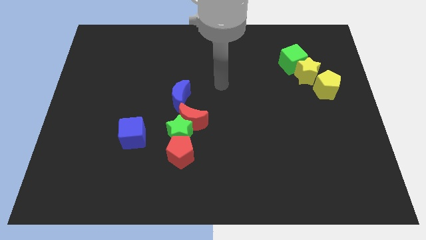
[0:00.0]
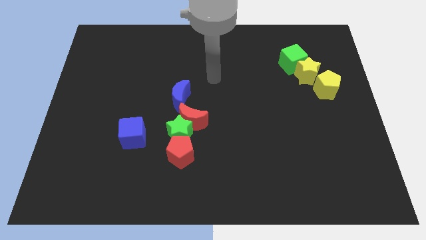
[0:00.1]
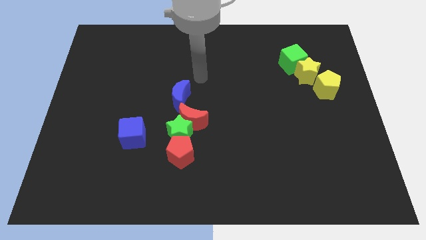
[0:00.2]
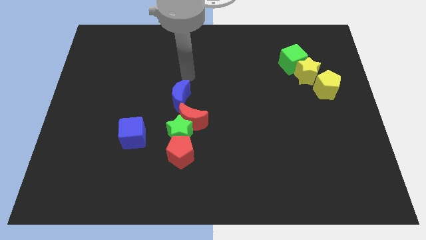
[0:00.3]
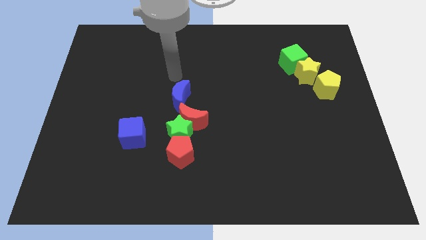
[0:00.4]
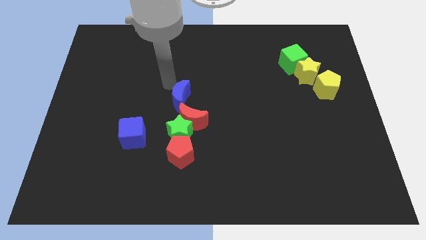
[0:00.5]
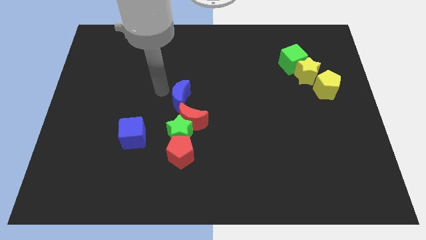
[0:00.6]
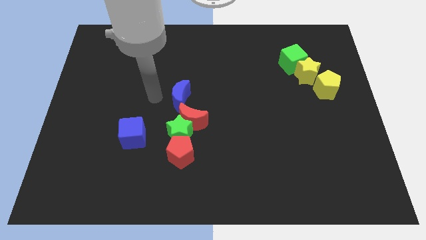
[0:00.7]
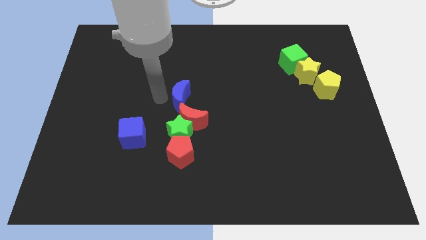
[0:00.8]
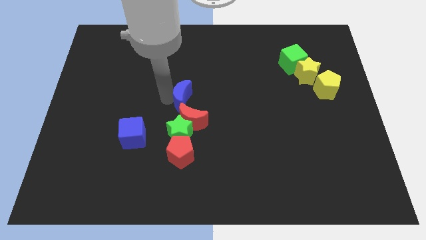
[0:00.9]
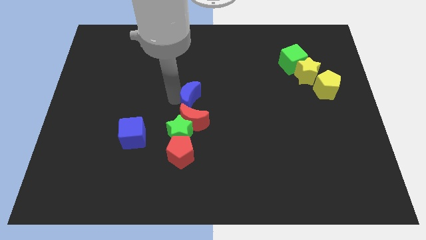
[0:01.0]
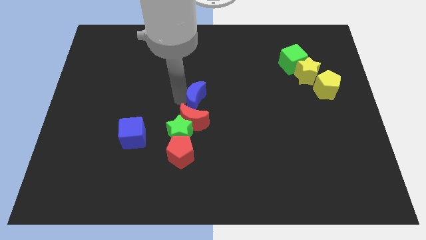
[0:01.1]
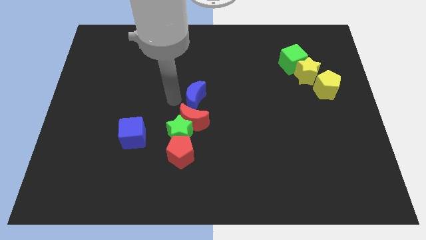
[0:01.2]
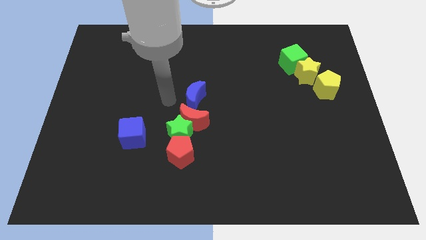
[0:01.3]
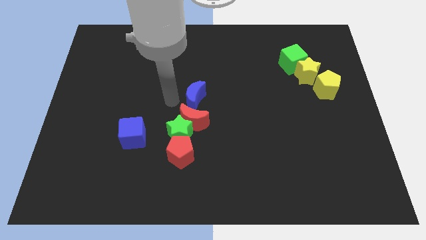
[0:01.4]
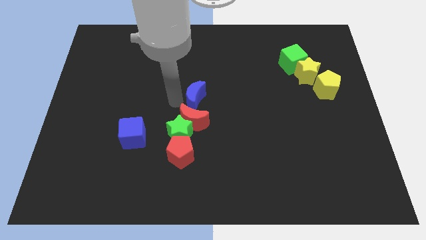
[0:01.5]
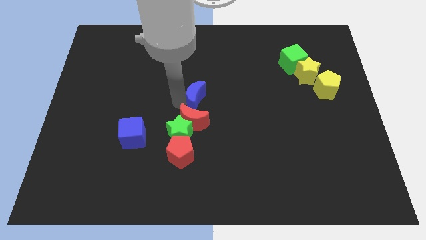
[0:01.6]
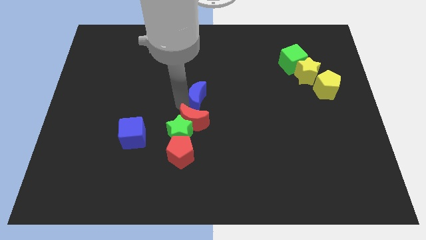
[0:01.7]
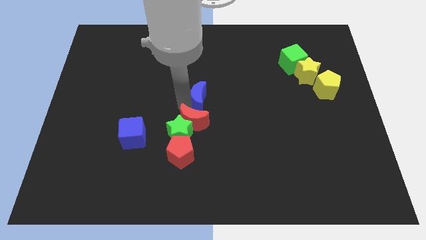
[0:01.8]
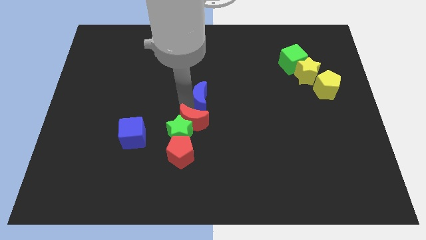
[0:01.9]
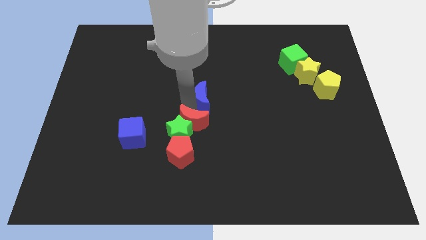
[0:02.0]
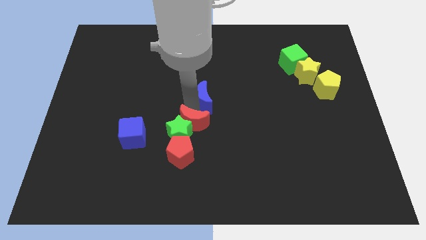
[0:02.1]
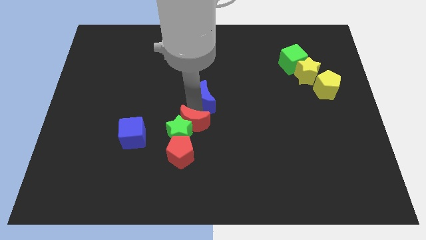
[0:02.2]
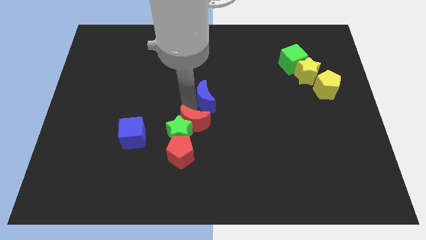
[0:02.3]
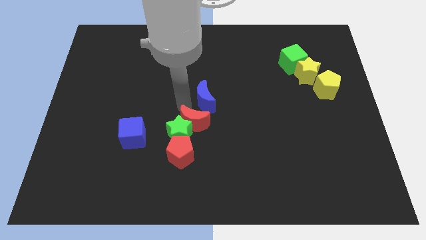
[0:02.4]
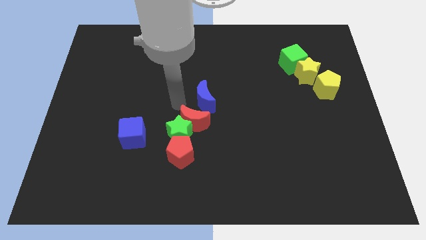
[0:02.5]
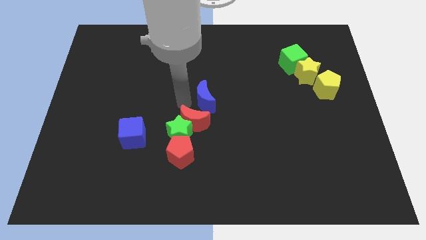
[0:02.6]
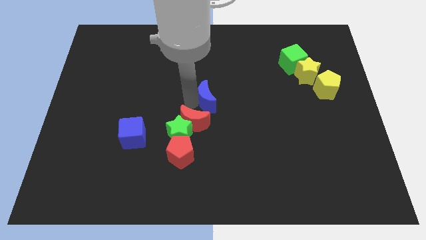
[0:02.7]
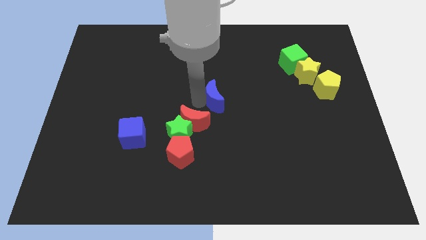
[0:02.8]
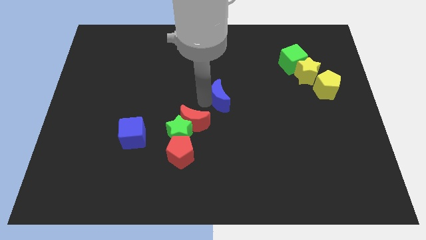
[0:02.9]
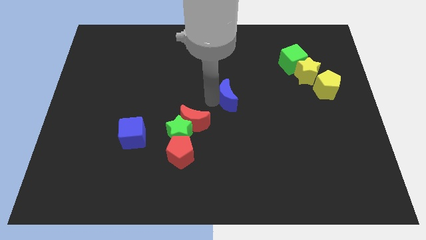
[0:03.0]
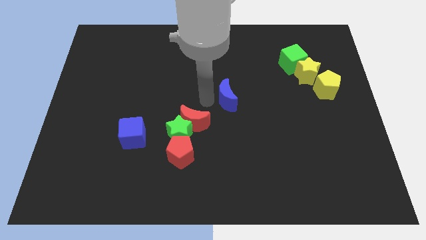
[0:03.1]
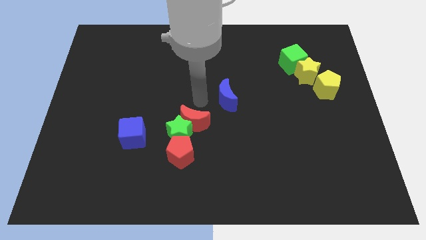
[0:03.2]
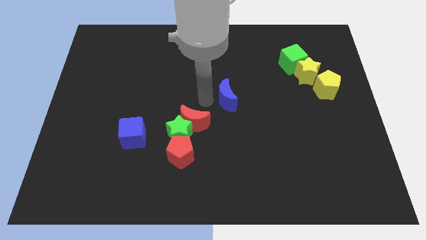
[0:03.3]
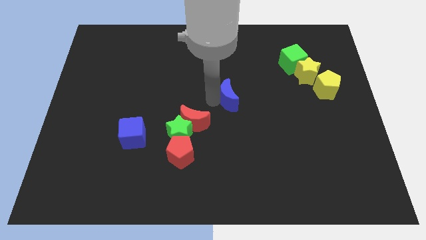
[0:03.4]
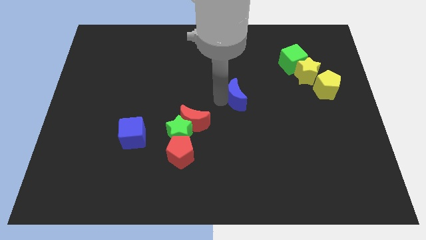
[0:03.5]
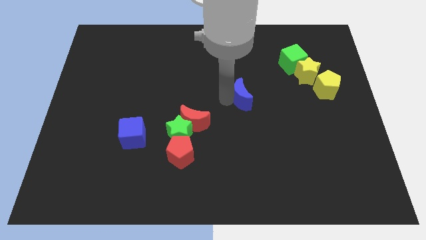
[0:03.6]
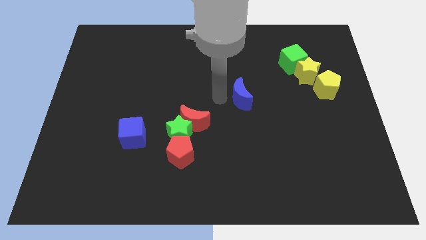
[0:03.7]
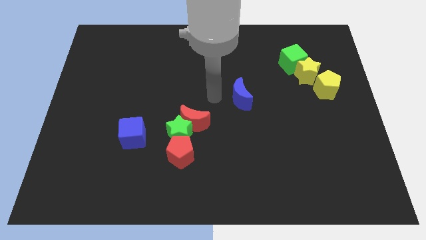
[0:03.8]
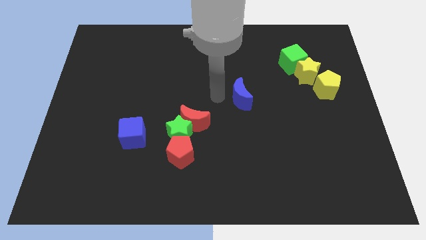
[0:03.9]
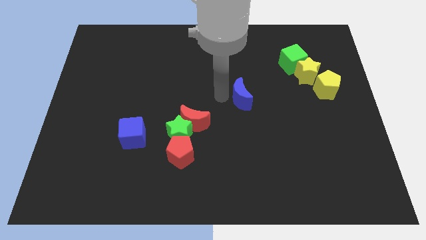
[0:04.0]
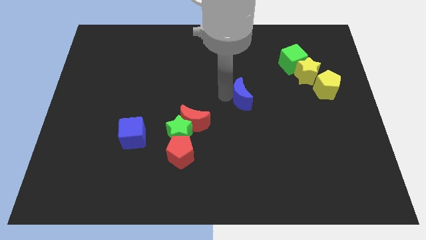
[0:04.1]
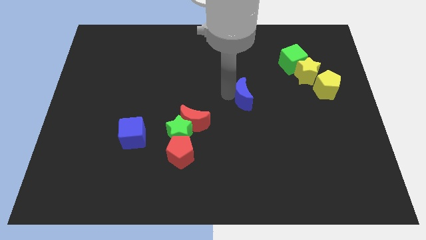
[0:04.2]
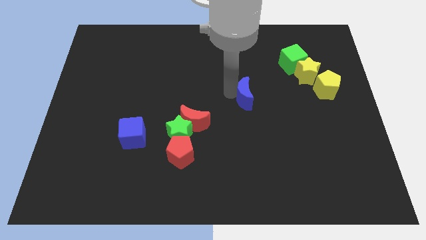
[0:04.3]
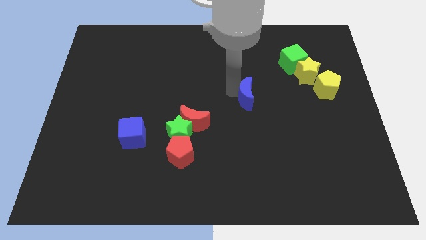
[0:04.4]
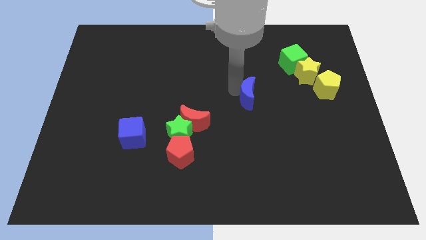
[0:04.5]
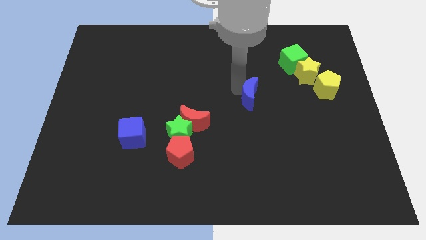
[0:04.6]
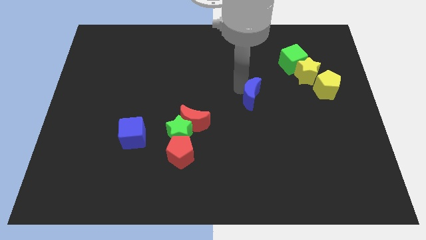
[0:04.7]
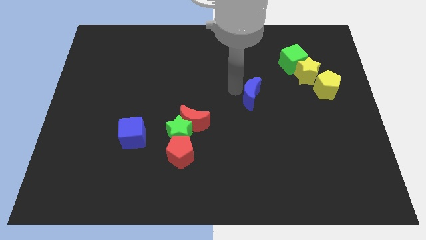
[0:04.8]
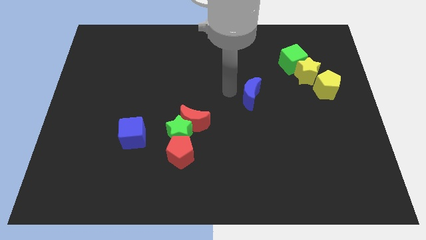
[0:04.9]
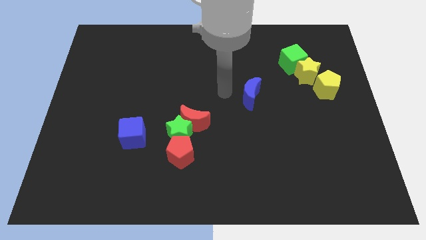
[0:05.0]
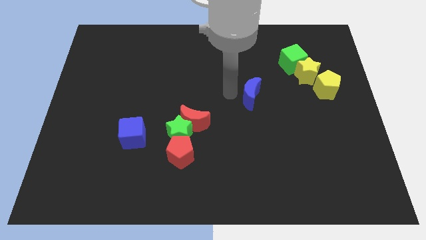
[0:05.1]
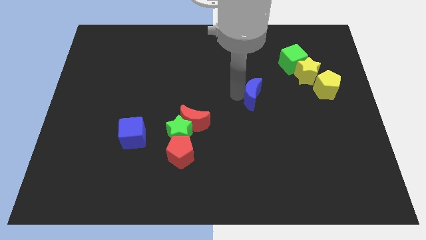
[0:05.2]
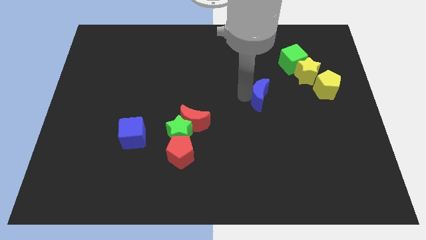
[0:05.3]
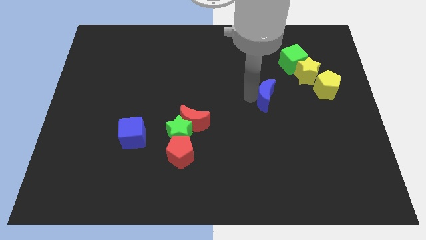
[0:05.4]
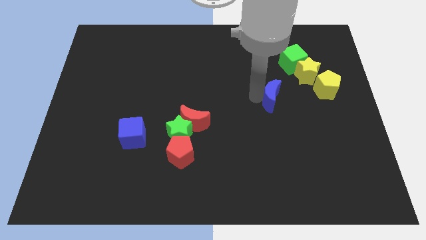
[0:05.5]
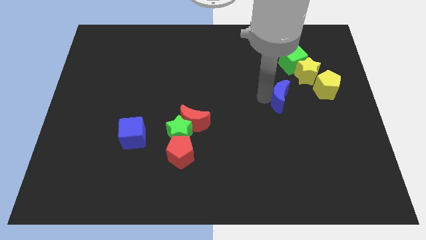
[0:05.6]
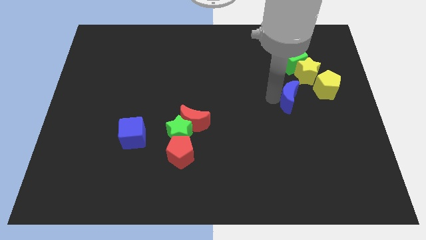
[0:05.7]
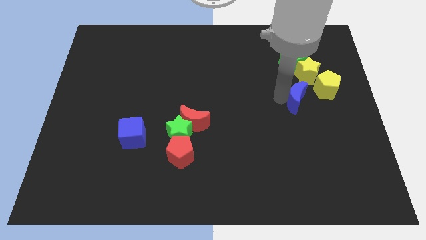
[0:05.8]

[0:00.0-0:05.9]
slide the blue moon below the yellow star

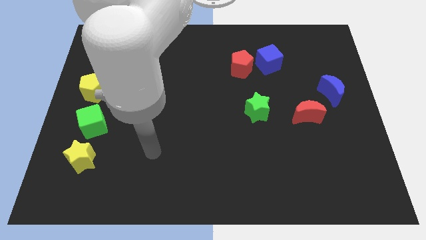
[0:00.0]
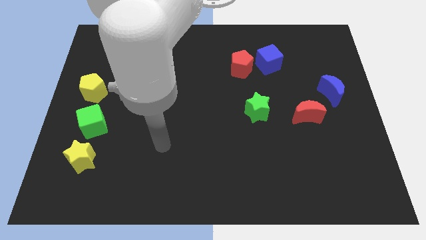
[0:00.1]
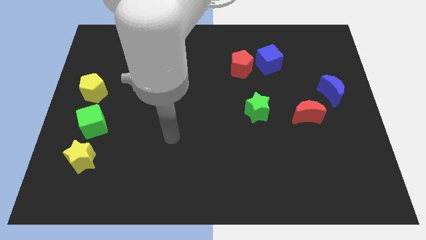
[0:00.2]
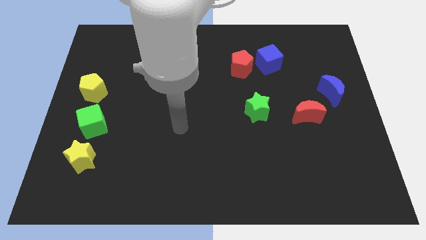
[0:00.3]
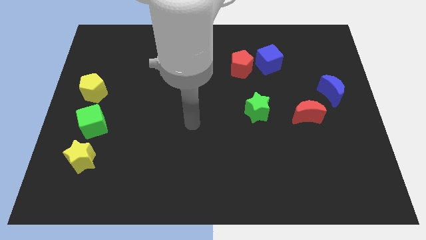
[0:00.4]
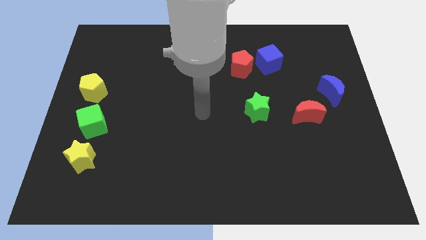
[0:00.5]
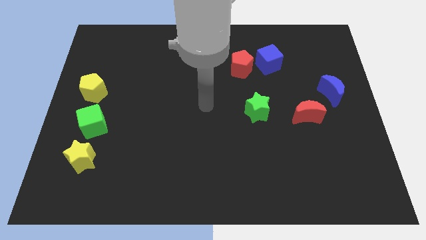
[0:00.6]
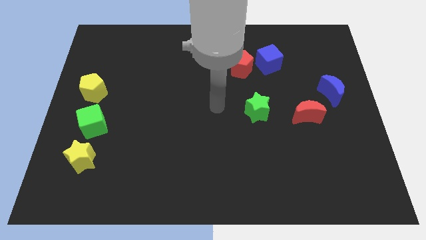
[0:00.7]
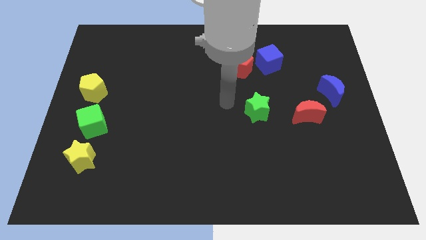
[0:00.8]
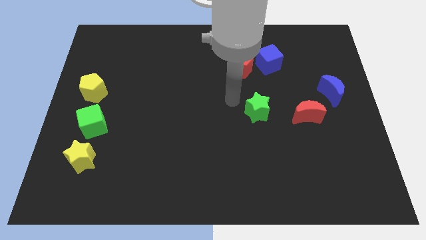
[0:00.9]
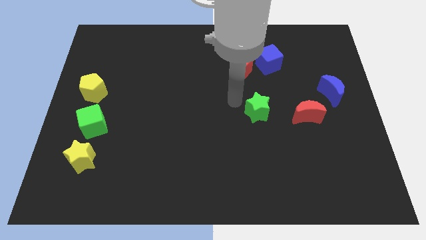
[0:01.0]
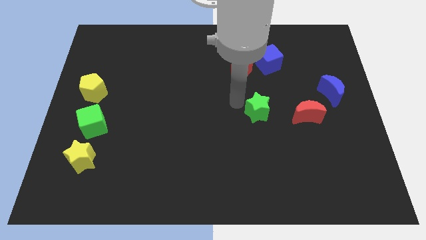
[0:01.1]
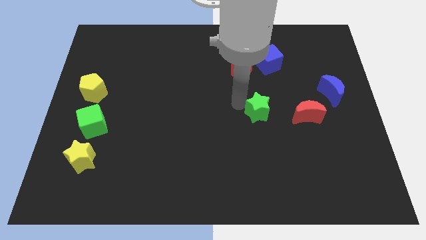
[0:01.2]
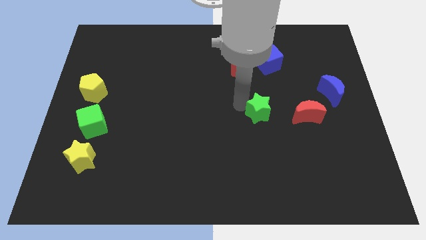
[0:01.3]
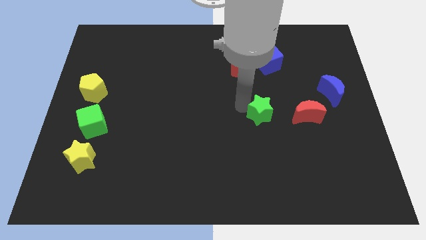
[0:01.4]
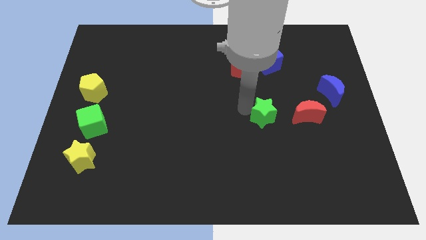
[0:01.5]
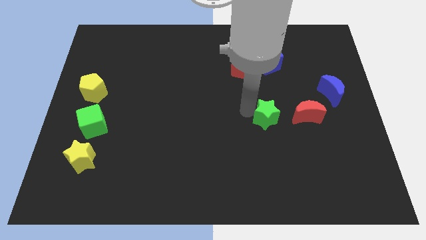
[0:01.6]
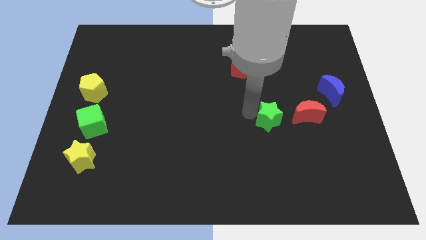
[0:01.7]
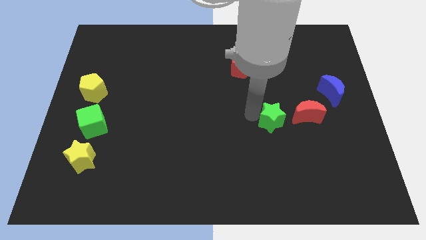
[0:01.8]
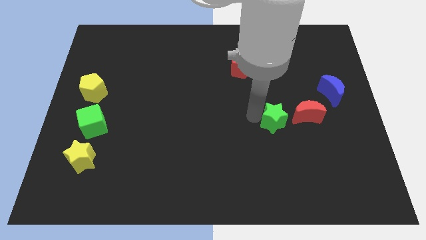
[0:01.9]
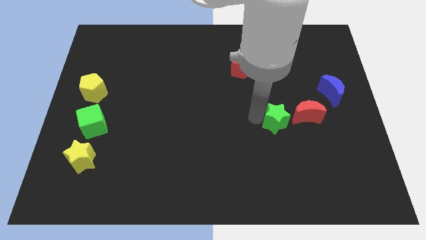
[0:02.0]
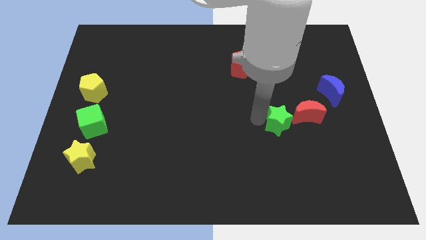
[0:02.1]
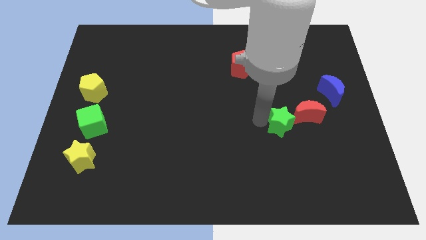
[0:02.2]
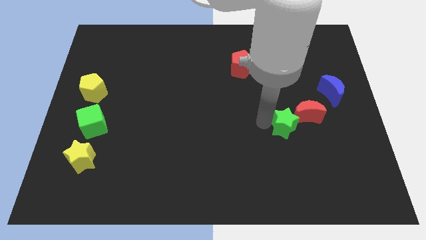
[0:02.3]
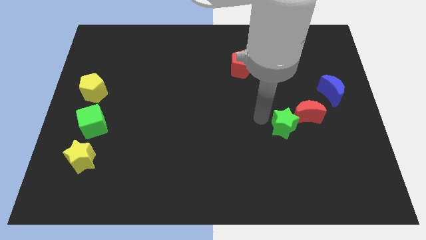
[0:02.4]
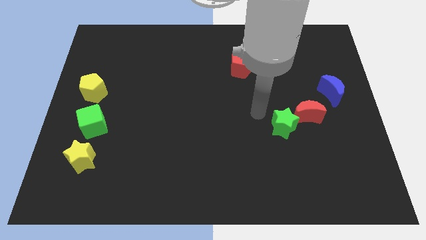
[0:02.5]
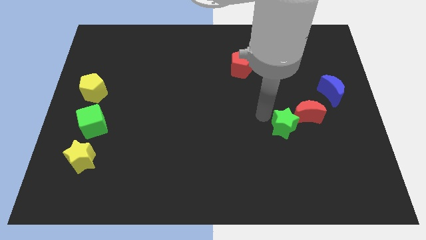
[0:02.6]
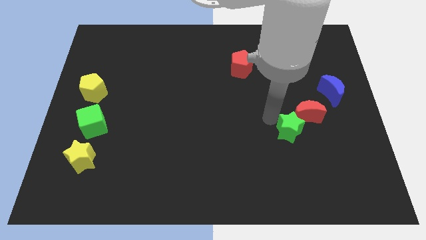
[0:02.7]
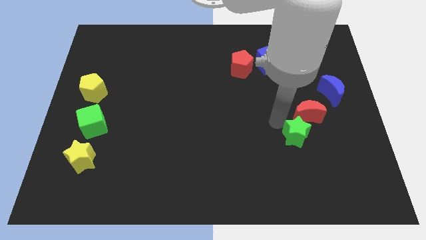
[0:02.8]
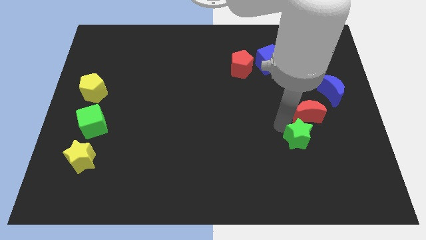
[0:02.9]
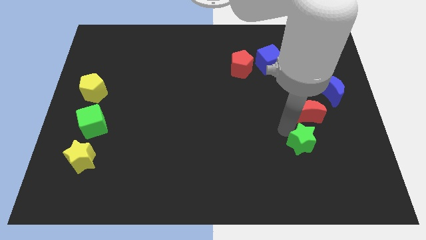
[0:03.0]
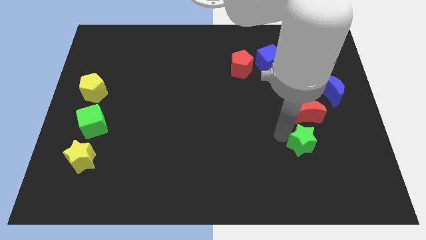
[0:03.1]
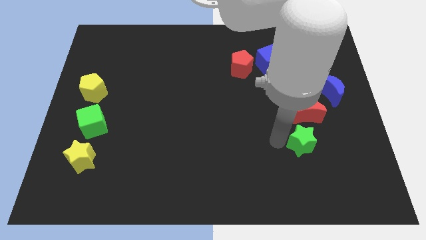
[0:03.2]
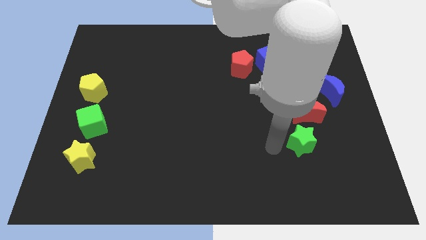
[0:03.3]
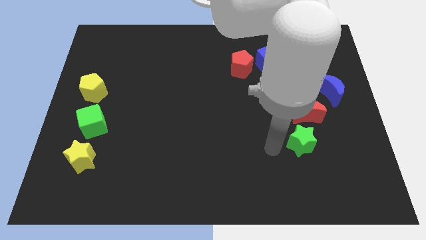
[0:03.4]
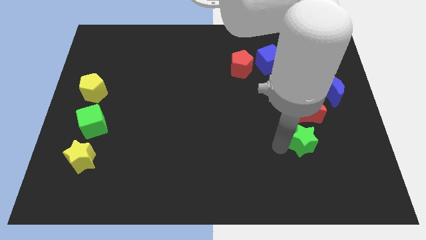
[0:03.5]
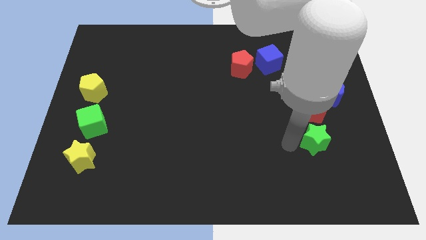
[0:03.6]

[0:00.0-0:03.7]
slide the green star to the bottom right side of the red moon
